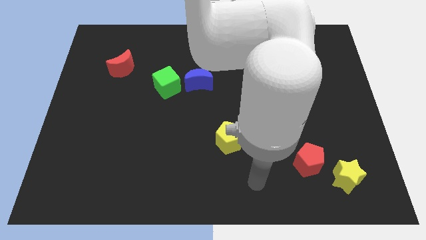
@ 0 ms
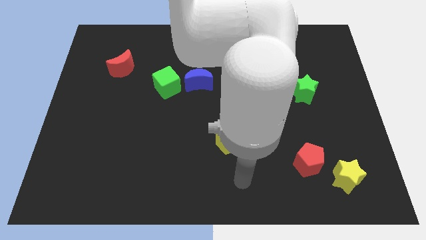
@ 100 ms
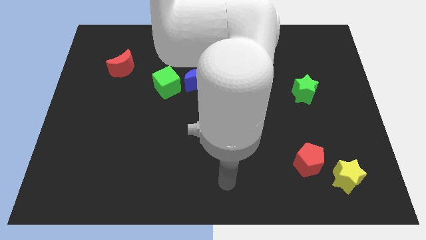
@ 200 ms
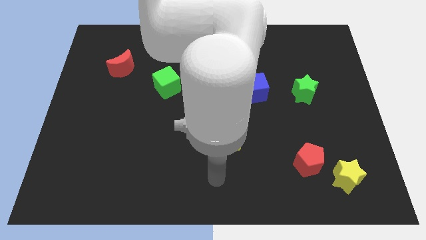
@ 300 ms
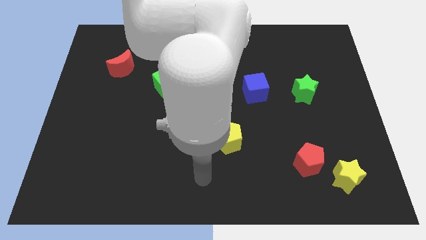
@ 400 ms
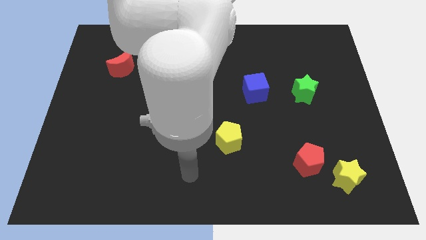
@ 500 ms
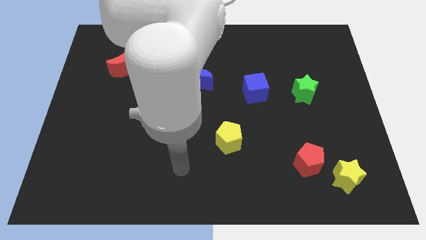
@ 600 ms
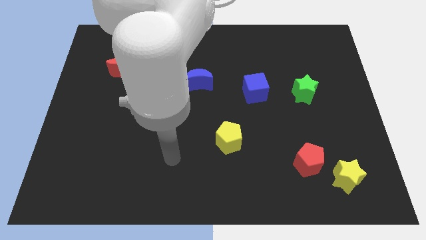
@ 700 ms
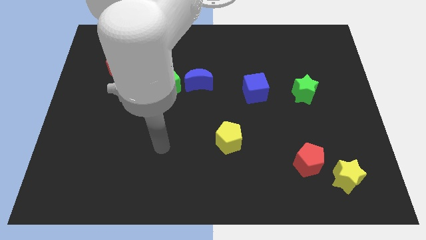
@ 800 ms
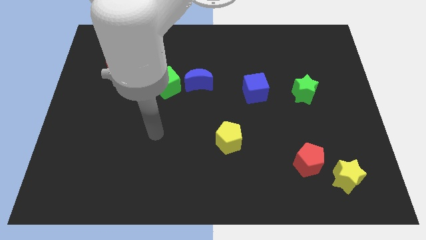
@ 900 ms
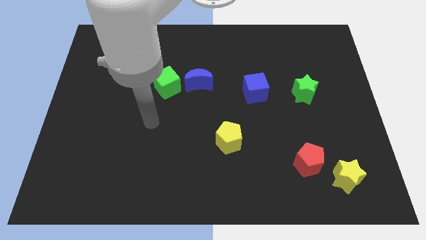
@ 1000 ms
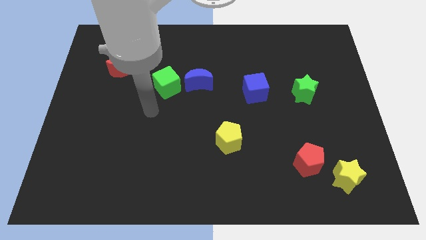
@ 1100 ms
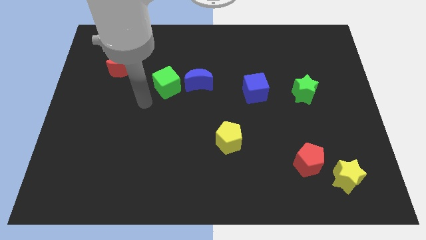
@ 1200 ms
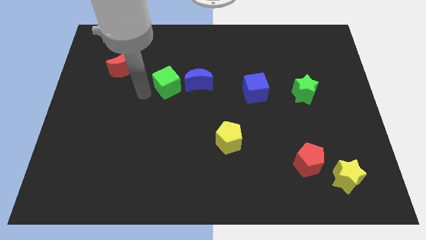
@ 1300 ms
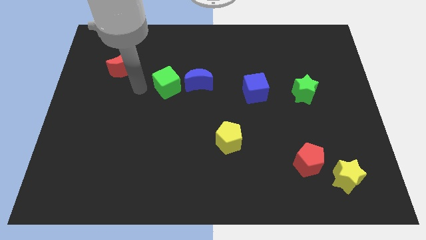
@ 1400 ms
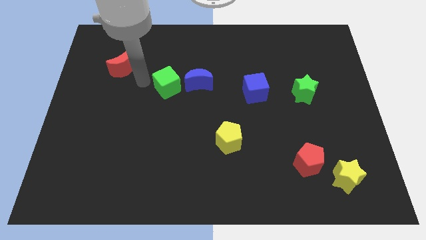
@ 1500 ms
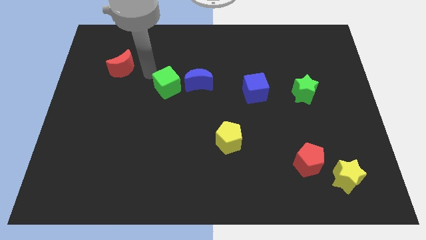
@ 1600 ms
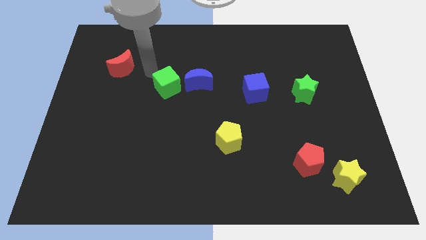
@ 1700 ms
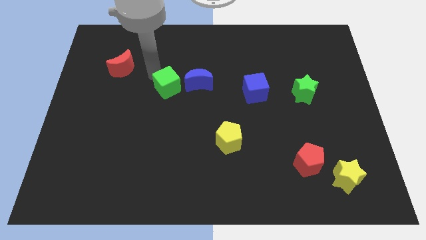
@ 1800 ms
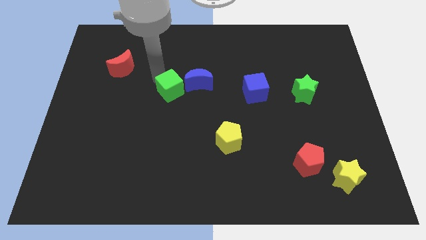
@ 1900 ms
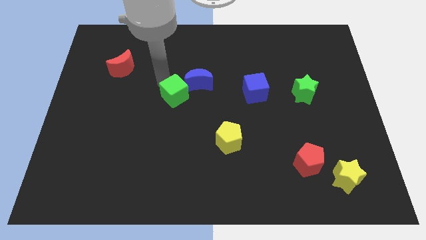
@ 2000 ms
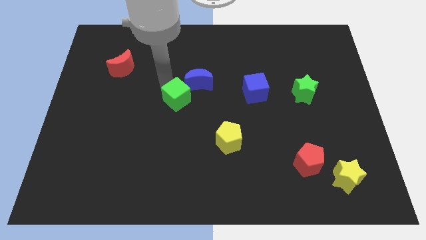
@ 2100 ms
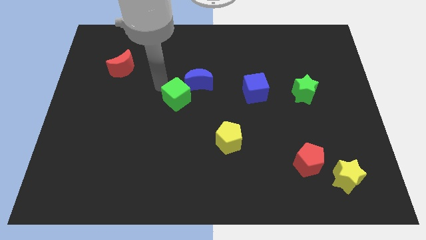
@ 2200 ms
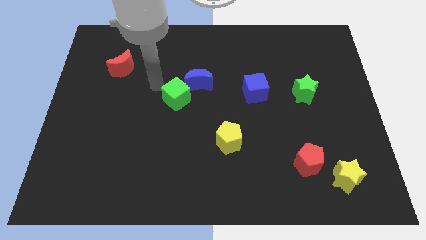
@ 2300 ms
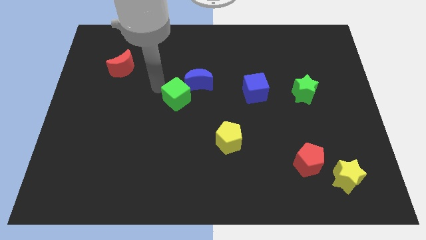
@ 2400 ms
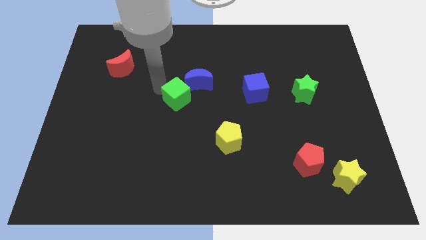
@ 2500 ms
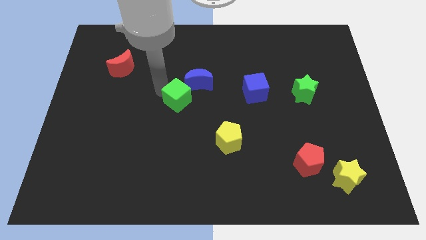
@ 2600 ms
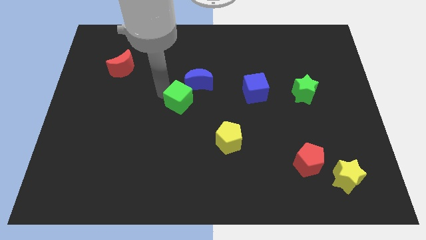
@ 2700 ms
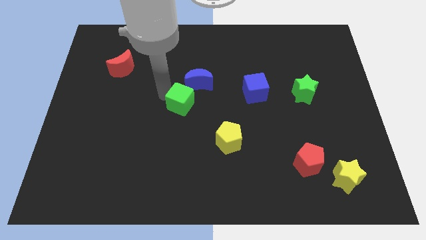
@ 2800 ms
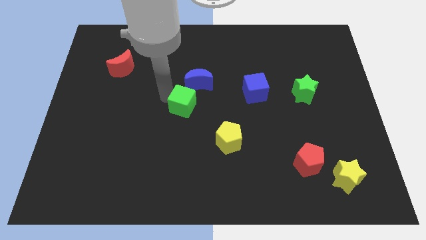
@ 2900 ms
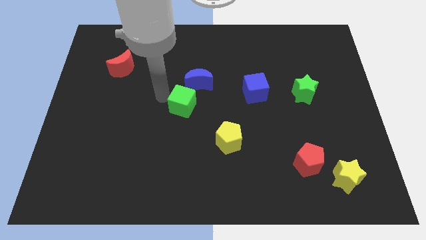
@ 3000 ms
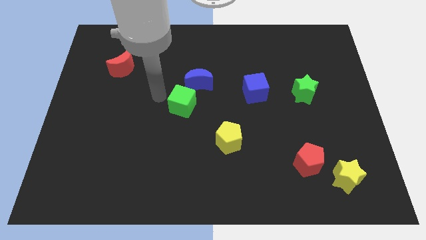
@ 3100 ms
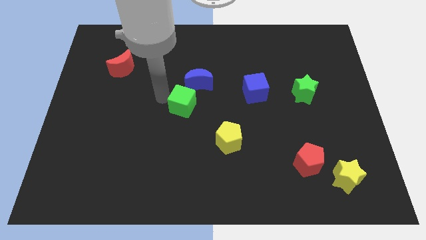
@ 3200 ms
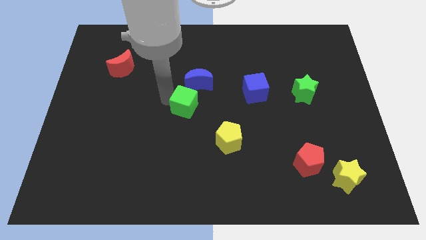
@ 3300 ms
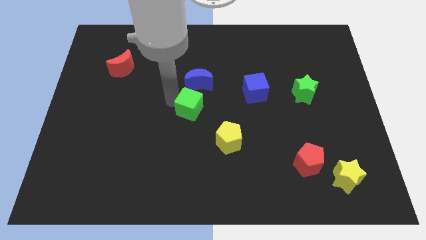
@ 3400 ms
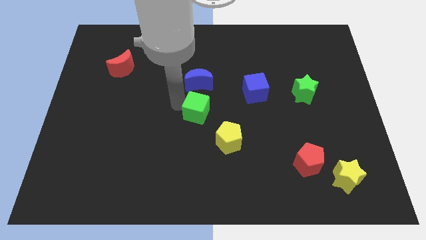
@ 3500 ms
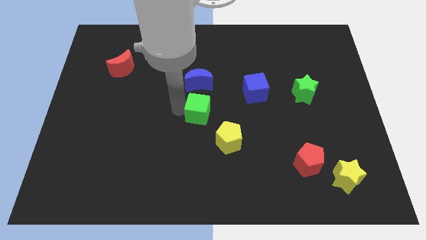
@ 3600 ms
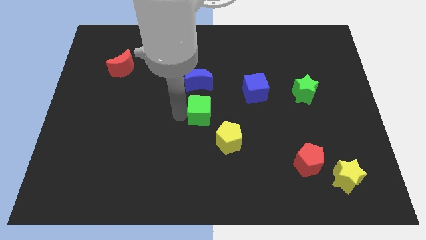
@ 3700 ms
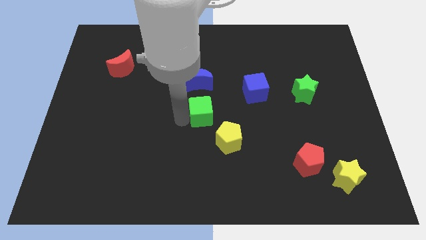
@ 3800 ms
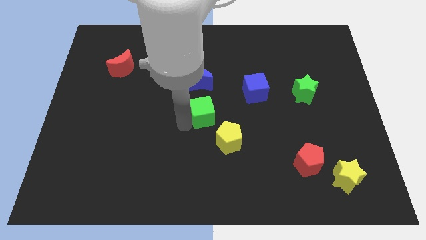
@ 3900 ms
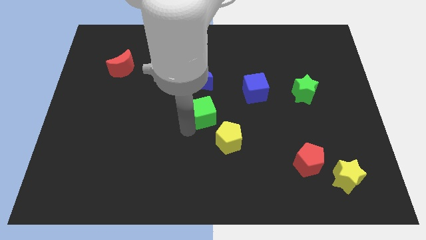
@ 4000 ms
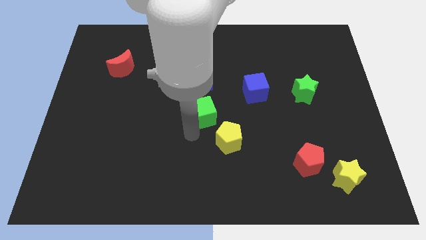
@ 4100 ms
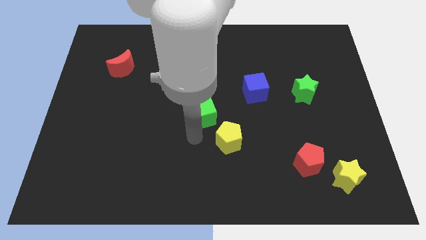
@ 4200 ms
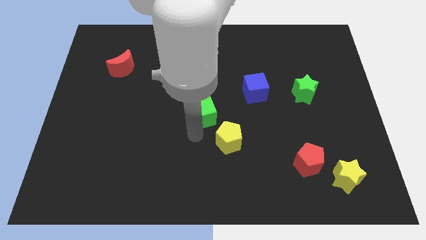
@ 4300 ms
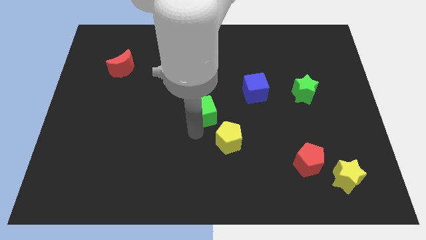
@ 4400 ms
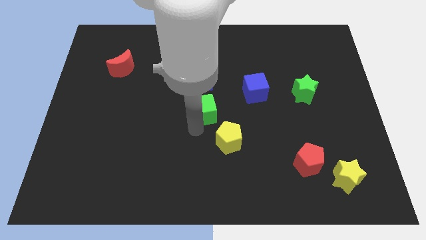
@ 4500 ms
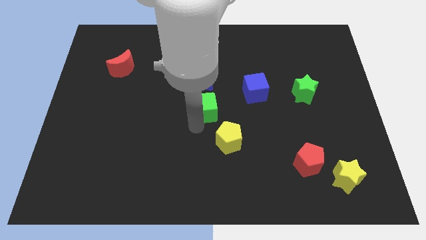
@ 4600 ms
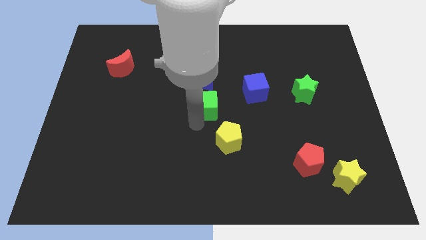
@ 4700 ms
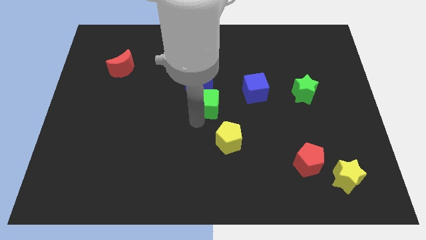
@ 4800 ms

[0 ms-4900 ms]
push the green cube to the left of the blue cube

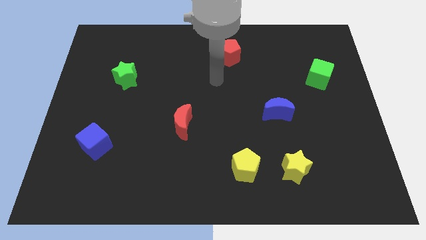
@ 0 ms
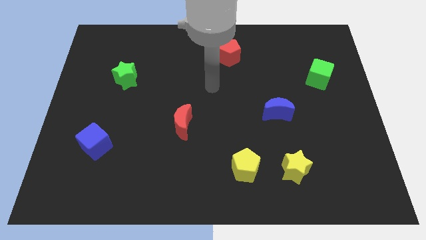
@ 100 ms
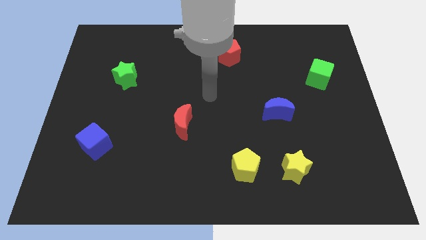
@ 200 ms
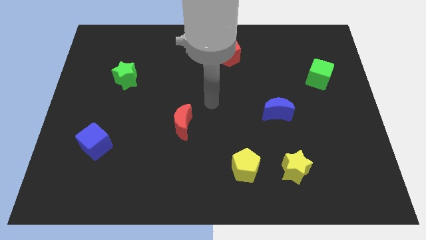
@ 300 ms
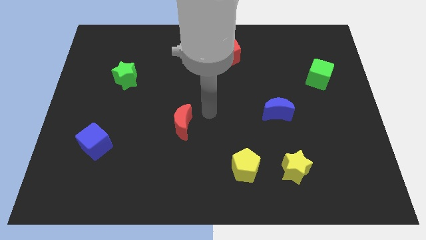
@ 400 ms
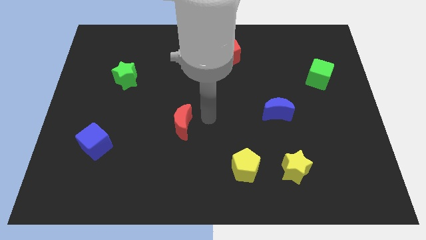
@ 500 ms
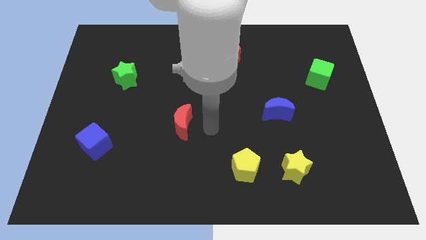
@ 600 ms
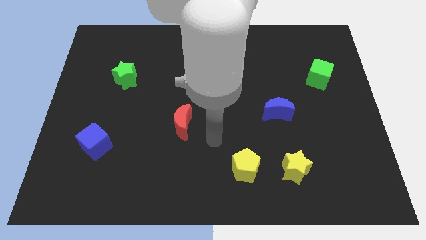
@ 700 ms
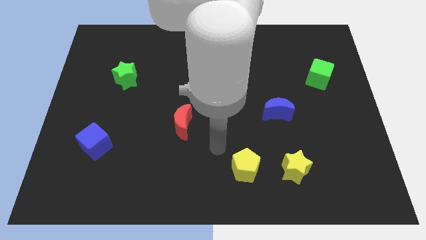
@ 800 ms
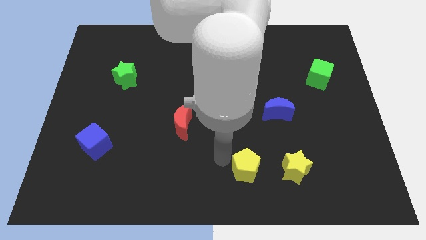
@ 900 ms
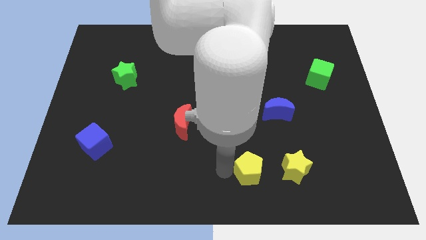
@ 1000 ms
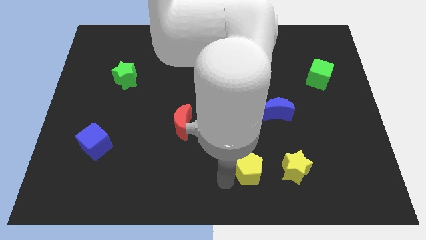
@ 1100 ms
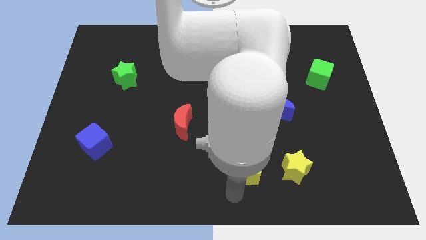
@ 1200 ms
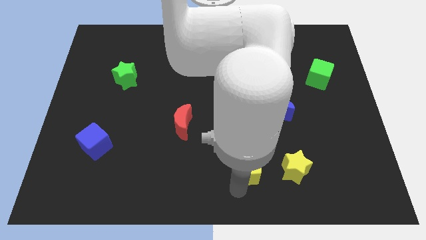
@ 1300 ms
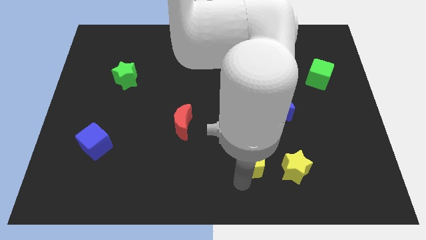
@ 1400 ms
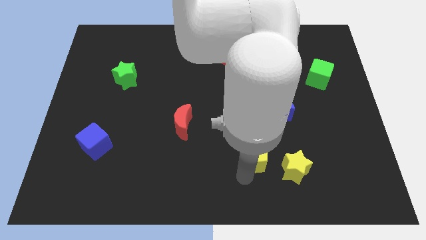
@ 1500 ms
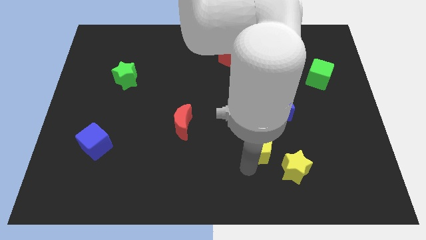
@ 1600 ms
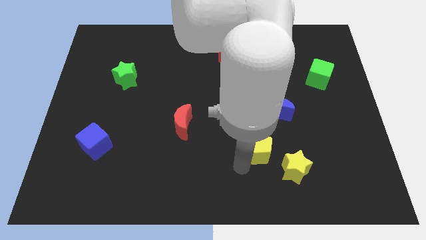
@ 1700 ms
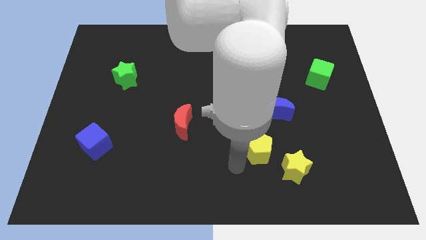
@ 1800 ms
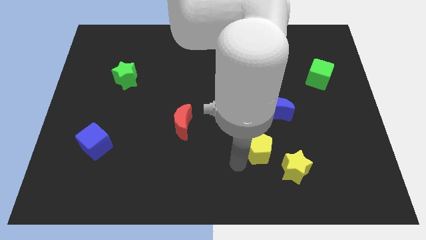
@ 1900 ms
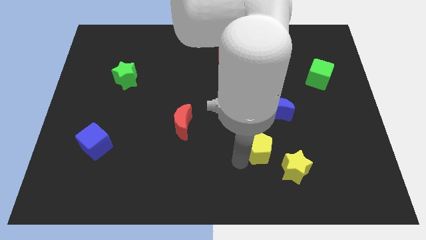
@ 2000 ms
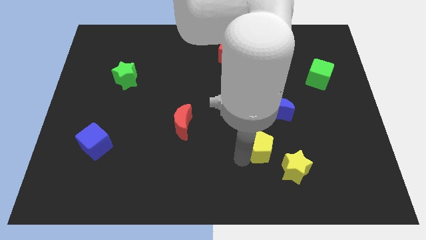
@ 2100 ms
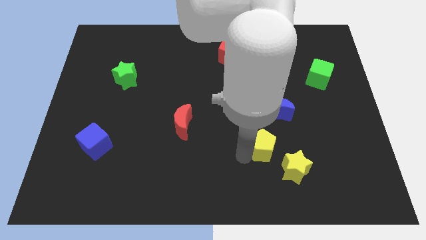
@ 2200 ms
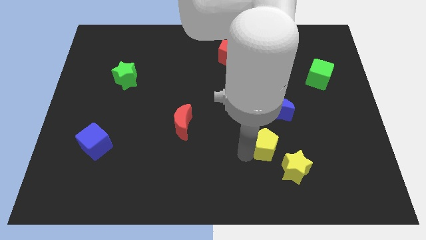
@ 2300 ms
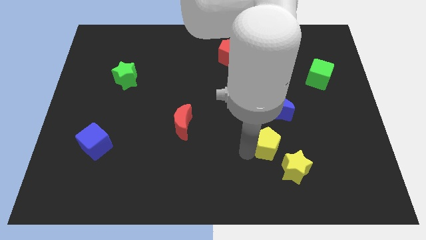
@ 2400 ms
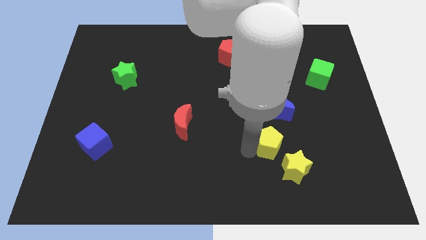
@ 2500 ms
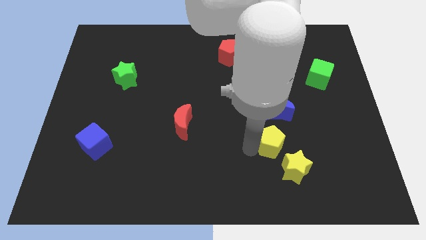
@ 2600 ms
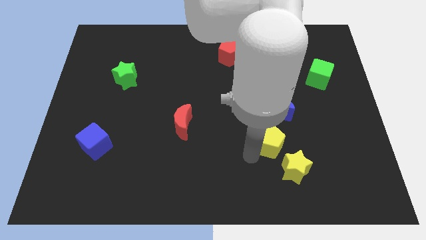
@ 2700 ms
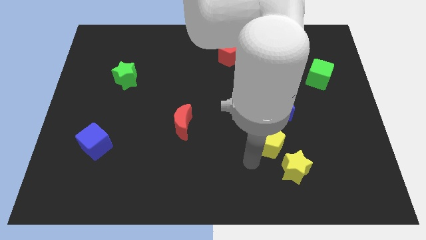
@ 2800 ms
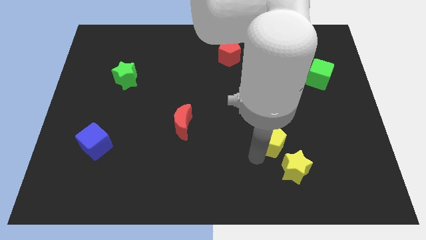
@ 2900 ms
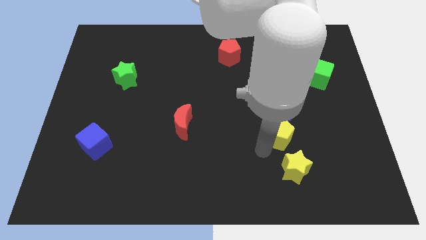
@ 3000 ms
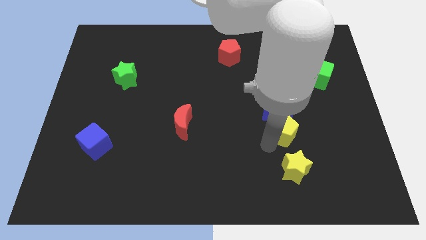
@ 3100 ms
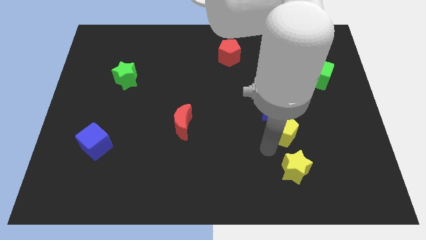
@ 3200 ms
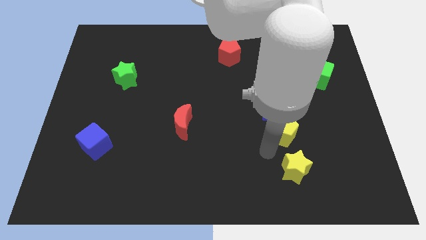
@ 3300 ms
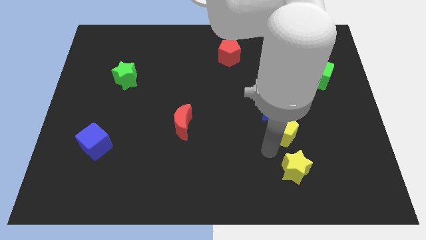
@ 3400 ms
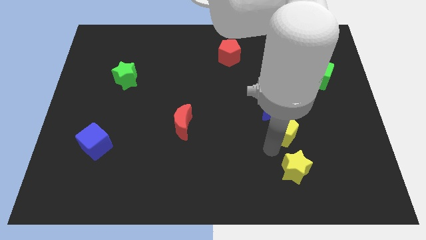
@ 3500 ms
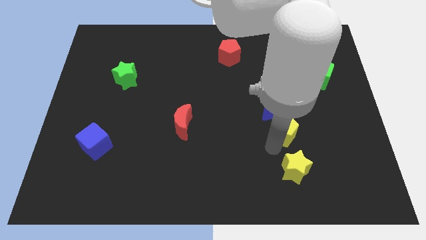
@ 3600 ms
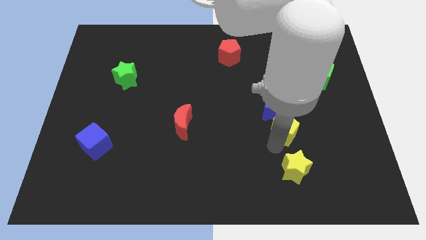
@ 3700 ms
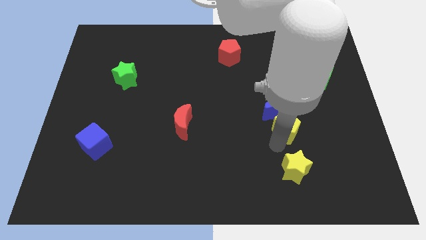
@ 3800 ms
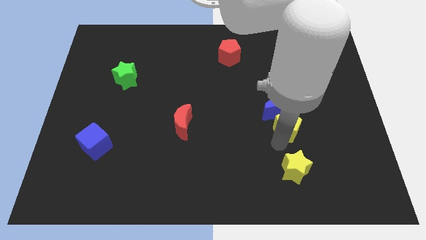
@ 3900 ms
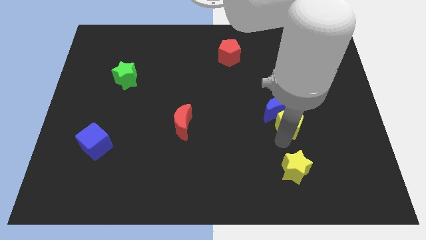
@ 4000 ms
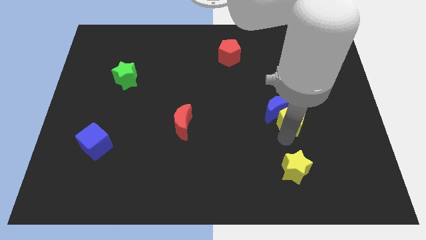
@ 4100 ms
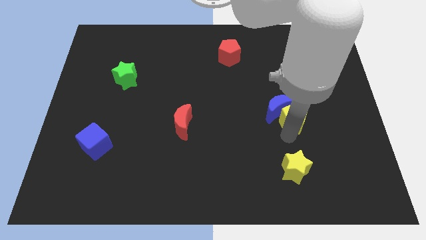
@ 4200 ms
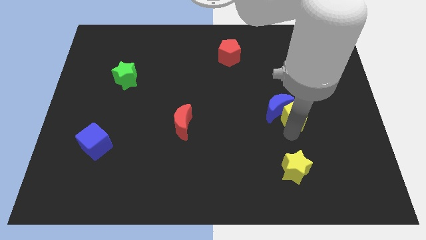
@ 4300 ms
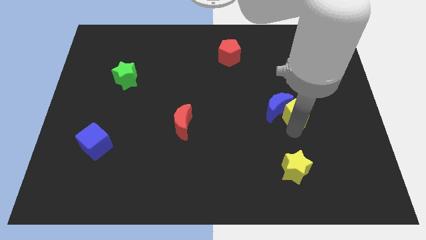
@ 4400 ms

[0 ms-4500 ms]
slide the yellow pentagon diagonally up and to the right of the blue moon
